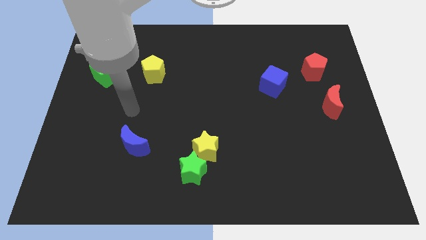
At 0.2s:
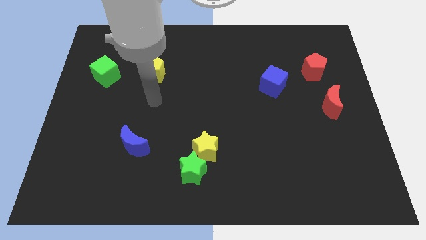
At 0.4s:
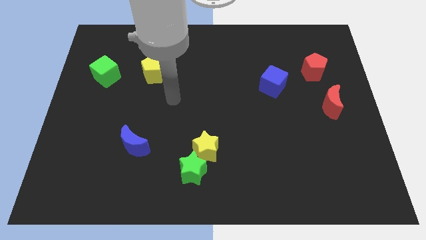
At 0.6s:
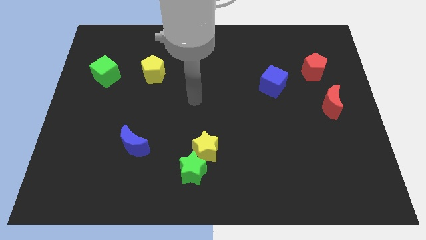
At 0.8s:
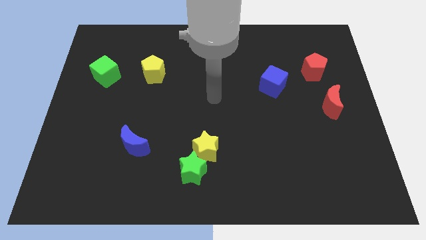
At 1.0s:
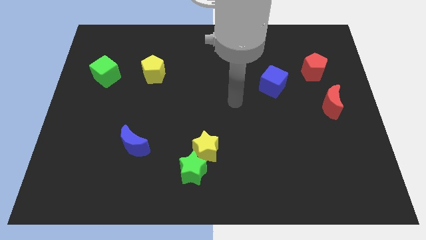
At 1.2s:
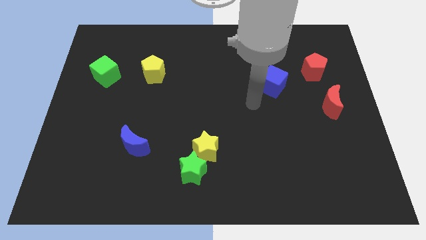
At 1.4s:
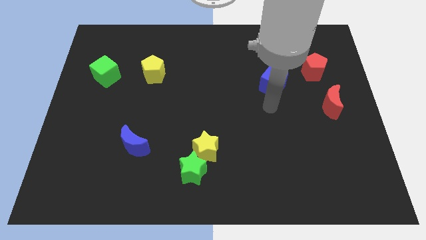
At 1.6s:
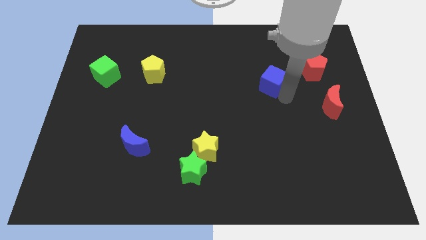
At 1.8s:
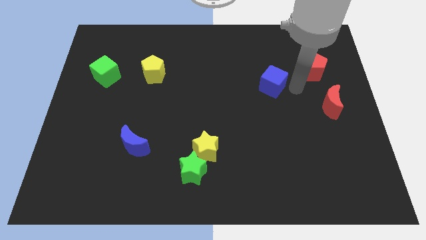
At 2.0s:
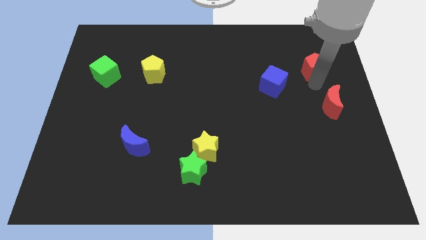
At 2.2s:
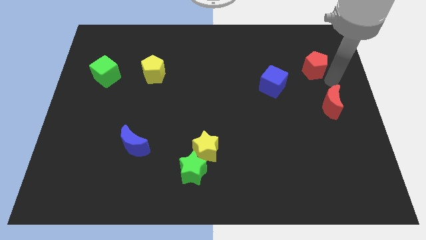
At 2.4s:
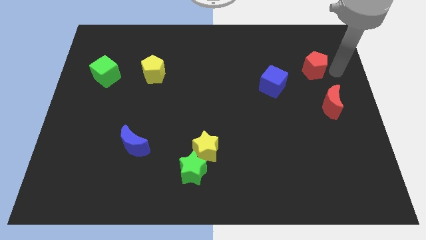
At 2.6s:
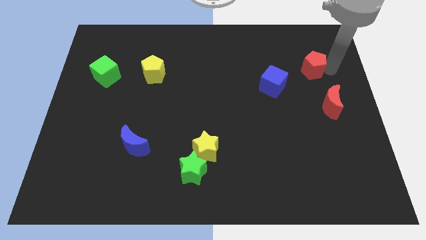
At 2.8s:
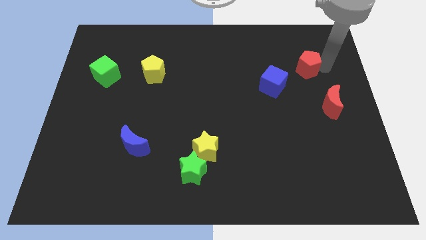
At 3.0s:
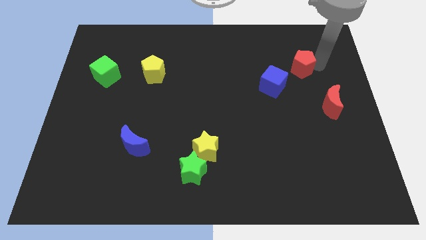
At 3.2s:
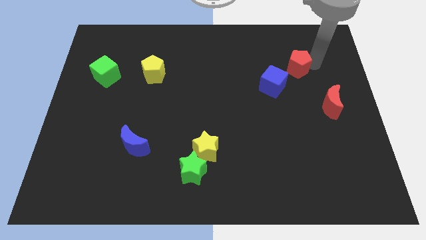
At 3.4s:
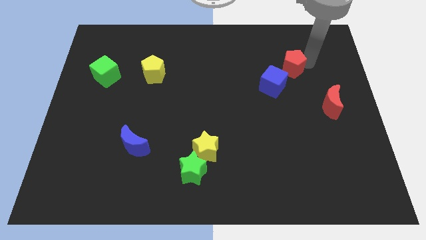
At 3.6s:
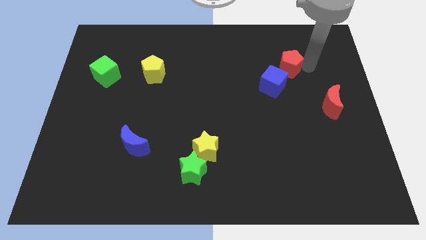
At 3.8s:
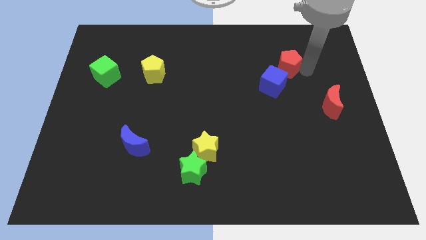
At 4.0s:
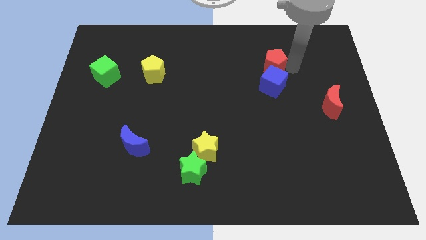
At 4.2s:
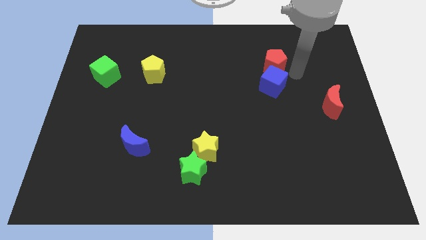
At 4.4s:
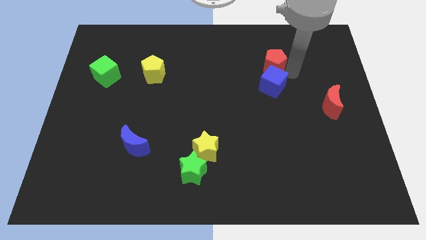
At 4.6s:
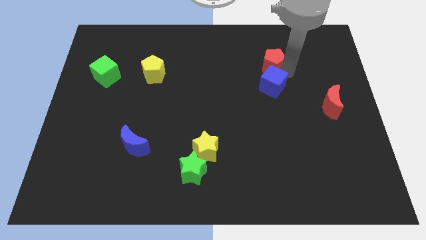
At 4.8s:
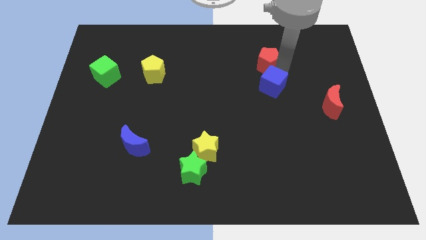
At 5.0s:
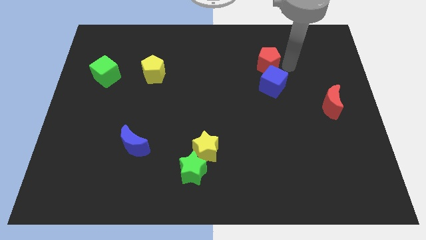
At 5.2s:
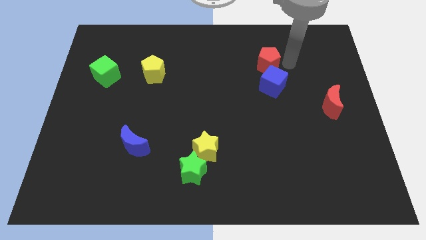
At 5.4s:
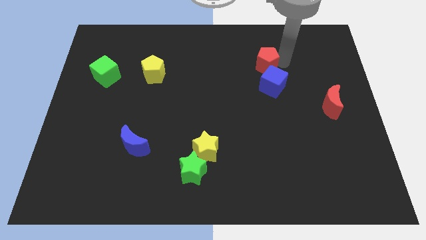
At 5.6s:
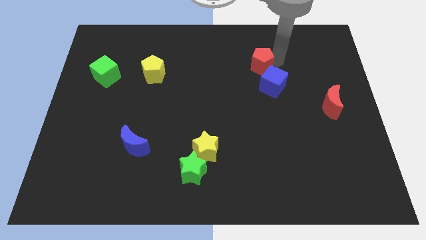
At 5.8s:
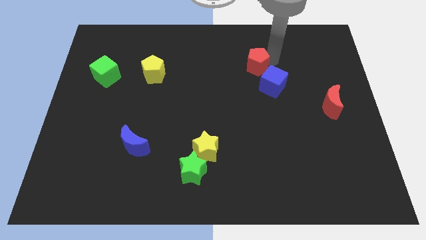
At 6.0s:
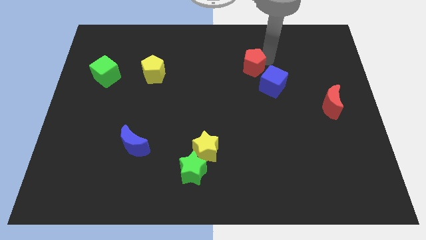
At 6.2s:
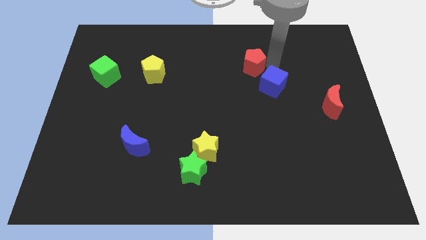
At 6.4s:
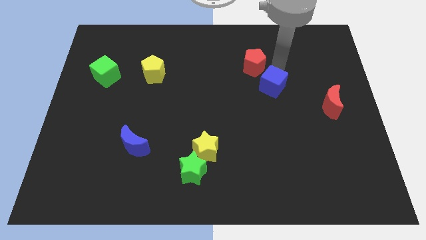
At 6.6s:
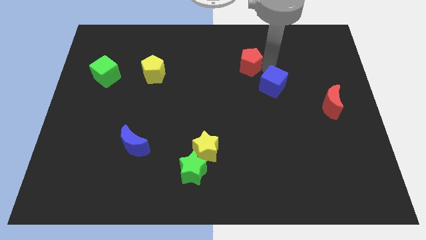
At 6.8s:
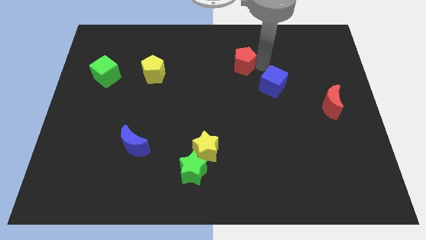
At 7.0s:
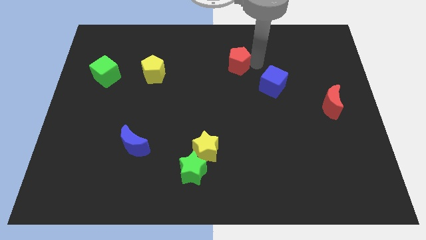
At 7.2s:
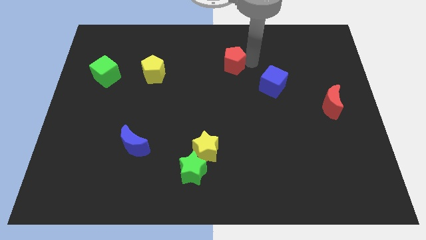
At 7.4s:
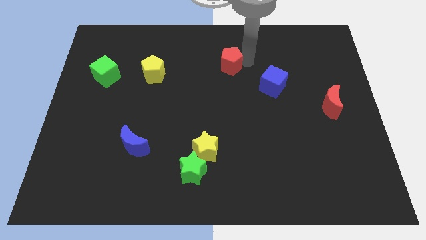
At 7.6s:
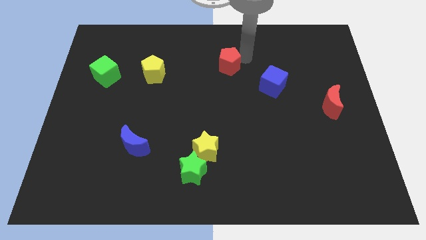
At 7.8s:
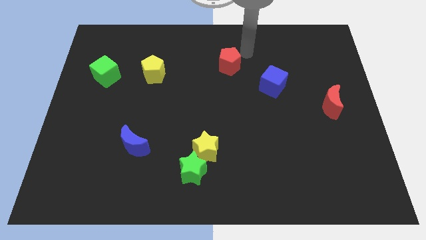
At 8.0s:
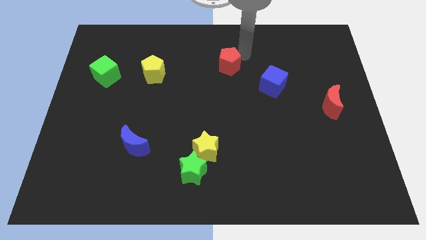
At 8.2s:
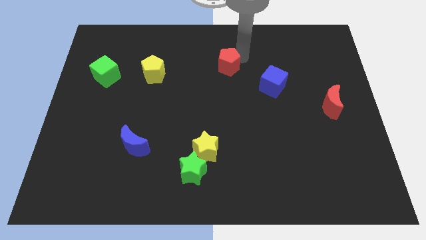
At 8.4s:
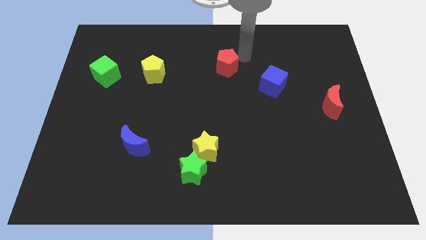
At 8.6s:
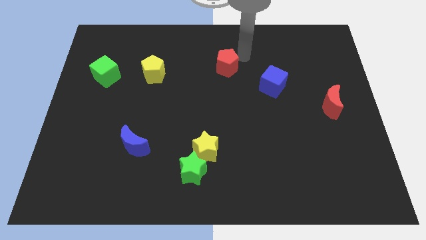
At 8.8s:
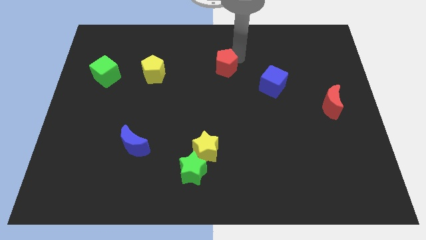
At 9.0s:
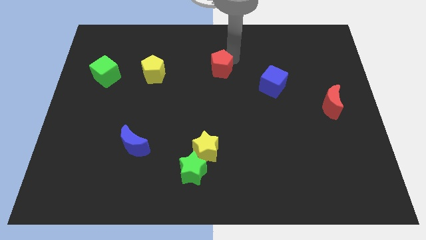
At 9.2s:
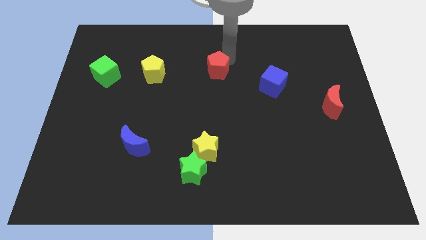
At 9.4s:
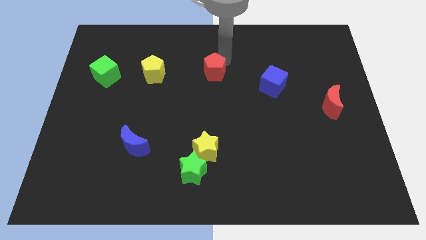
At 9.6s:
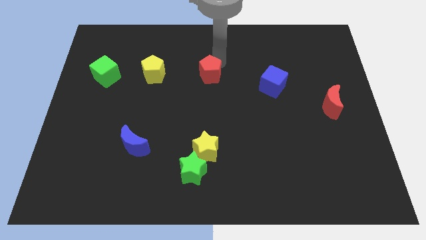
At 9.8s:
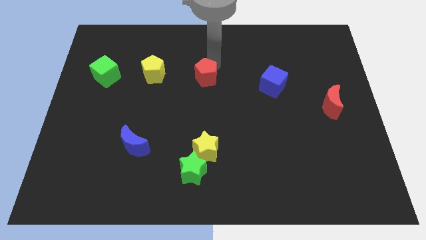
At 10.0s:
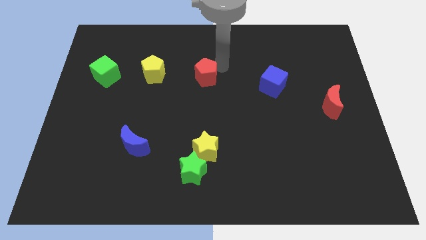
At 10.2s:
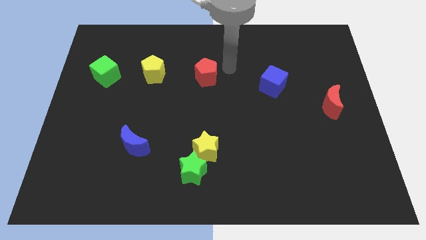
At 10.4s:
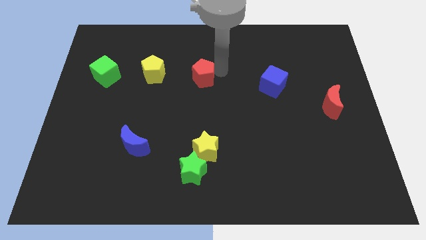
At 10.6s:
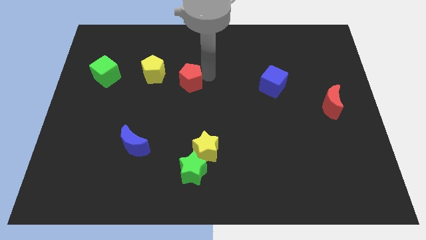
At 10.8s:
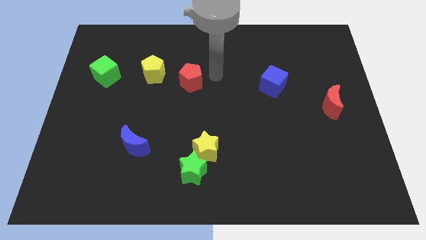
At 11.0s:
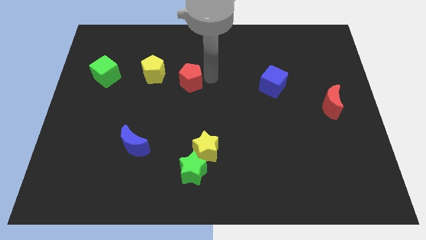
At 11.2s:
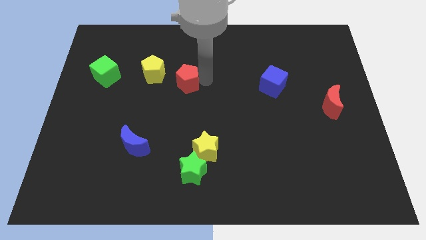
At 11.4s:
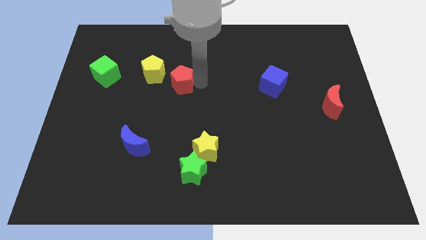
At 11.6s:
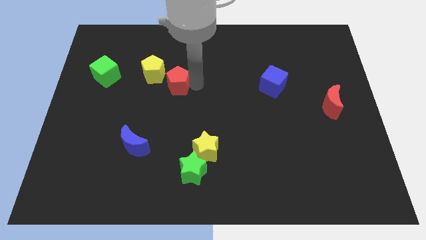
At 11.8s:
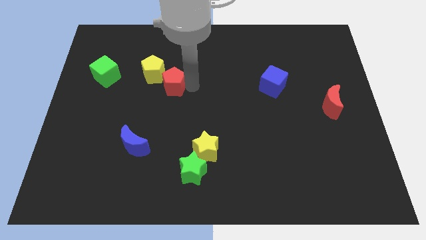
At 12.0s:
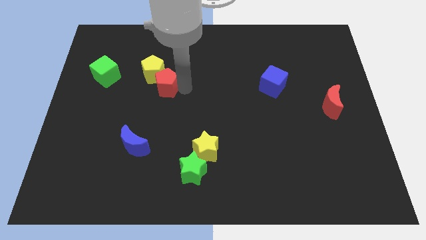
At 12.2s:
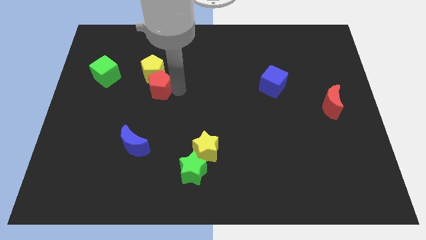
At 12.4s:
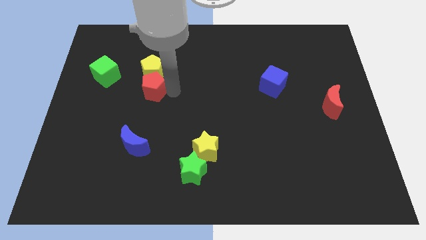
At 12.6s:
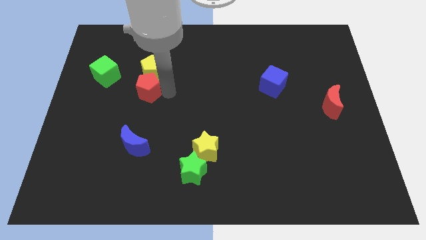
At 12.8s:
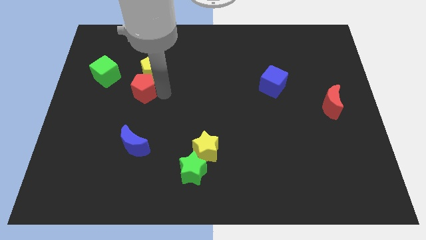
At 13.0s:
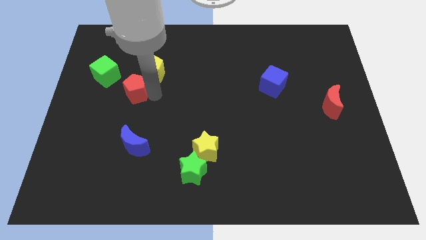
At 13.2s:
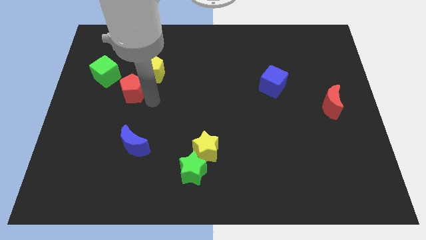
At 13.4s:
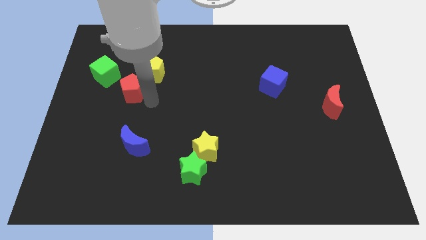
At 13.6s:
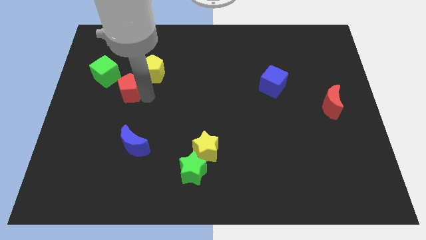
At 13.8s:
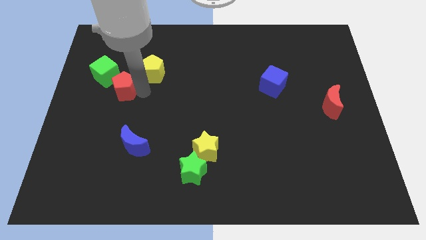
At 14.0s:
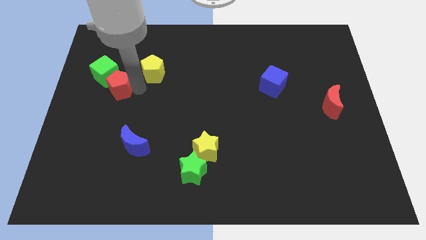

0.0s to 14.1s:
put the red pentagon close to the green cube
